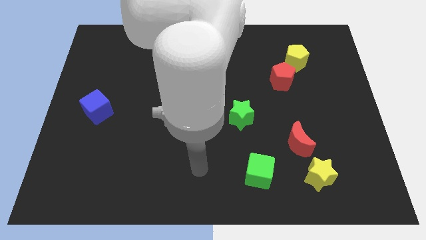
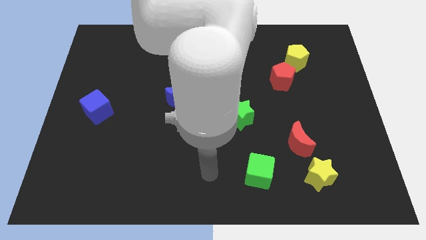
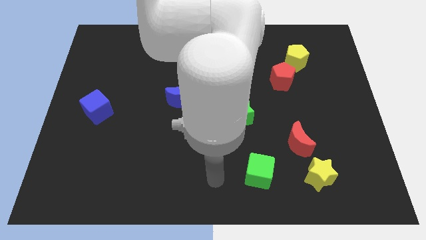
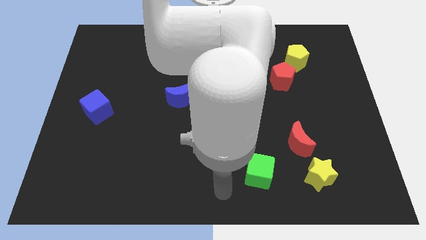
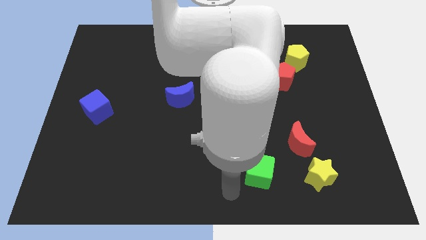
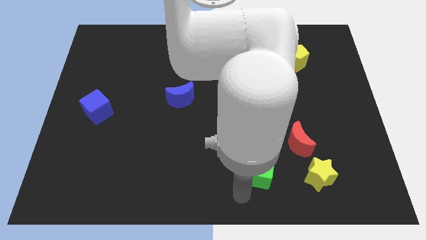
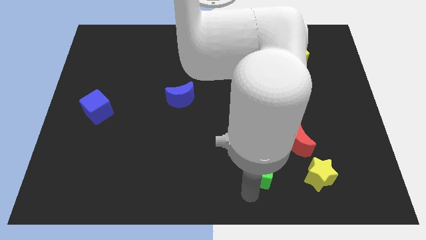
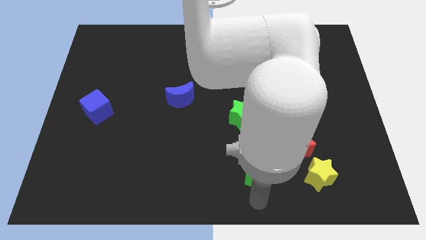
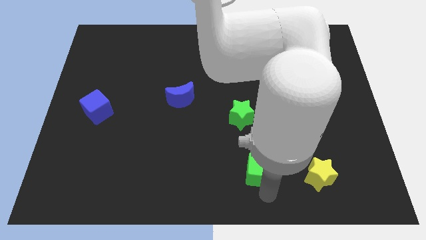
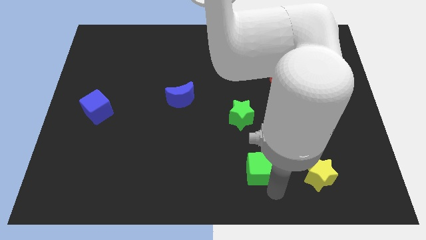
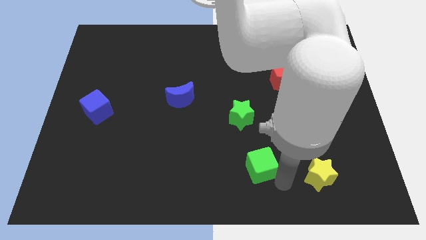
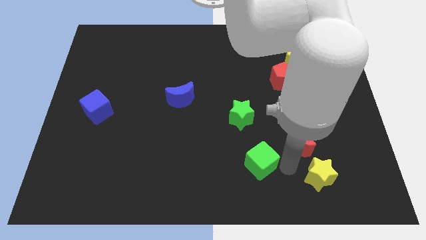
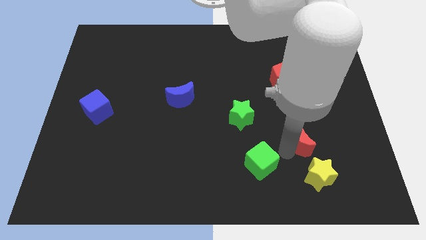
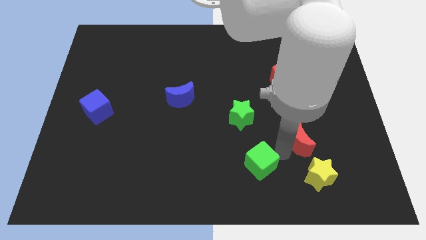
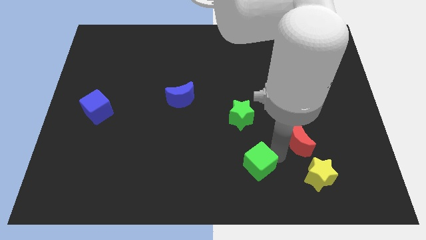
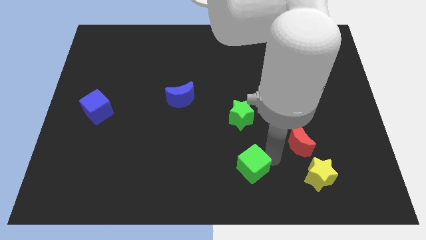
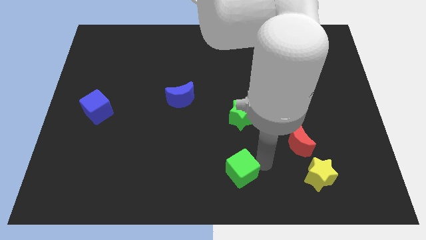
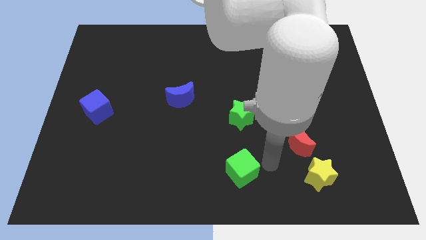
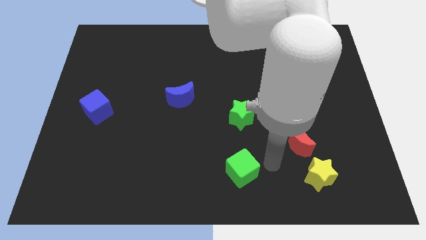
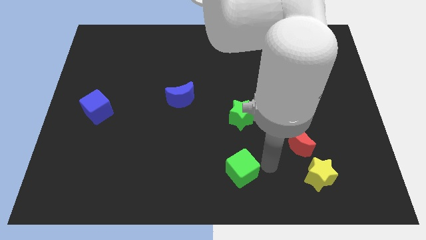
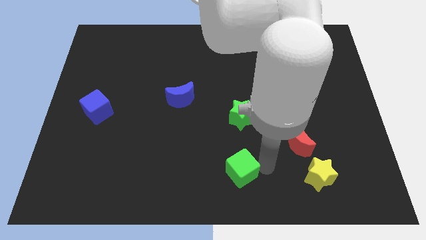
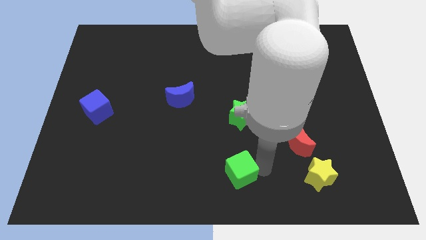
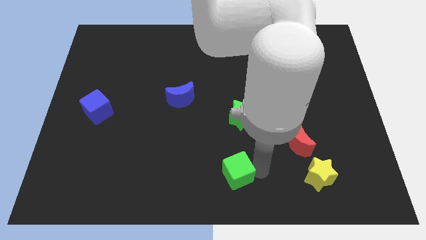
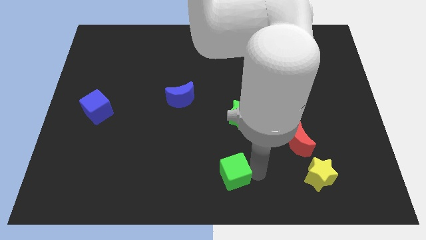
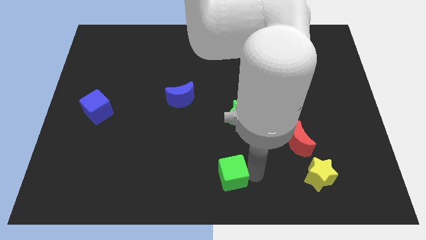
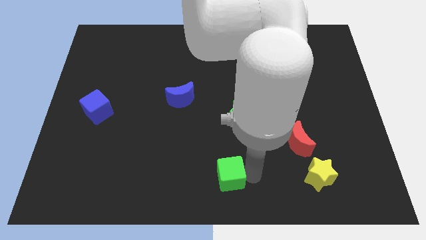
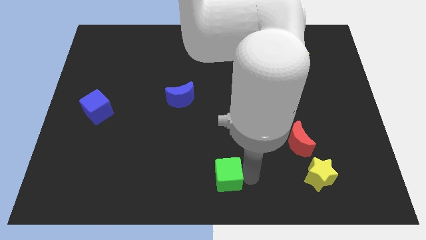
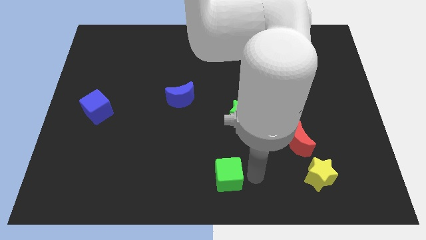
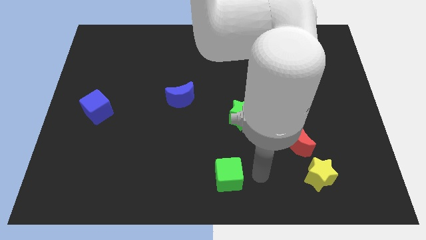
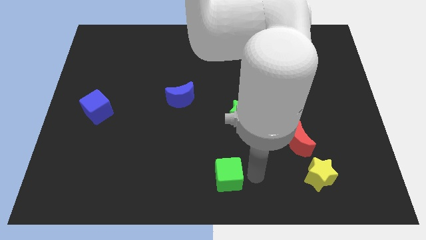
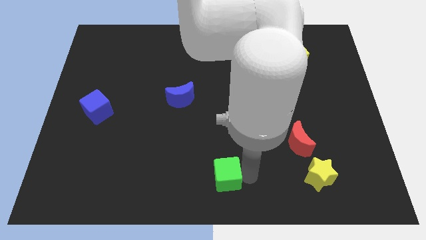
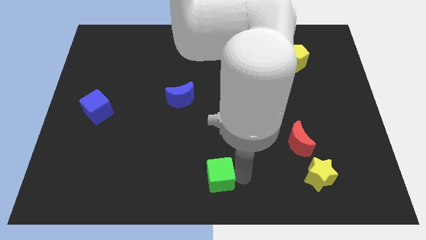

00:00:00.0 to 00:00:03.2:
slide the green cube to the left a little bit

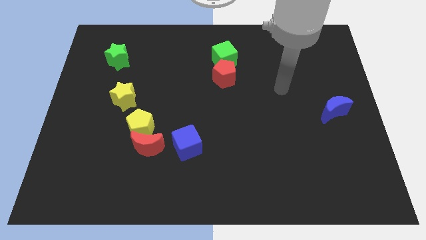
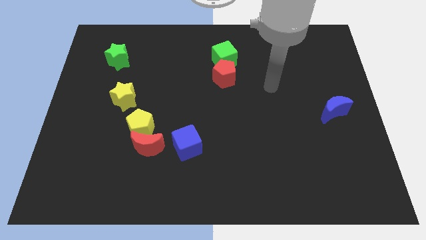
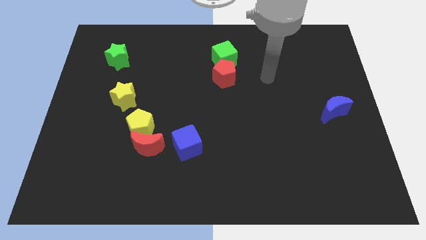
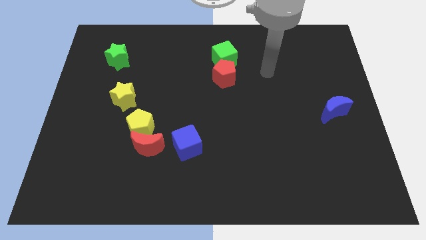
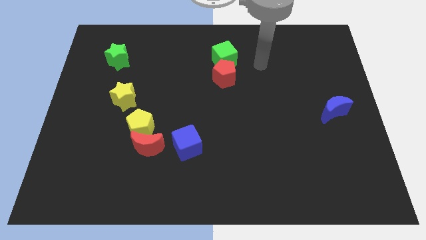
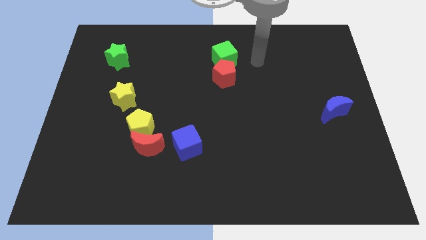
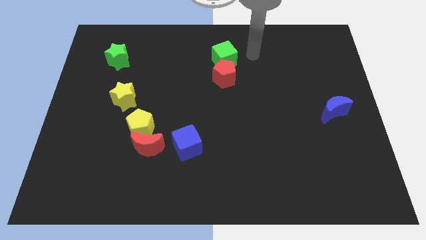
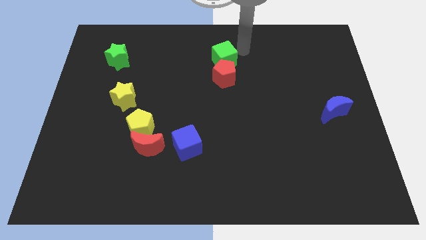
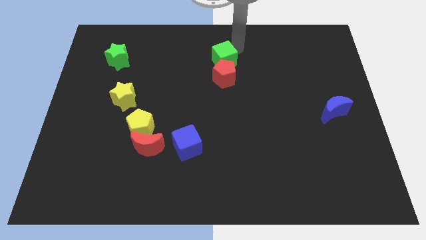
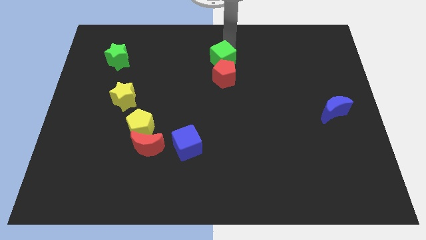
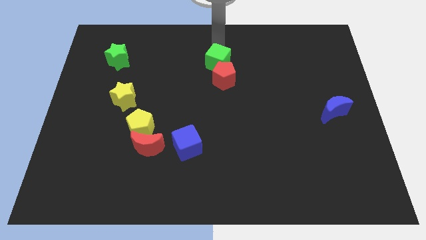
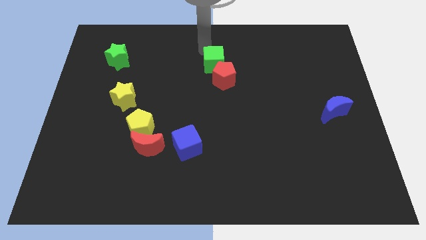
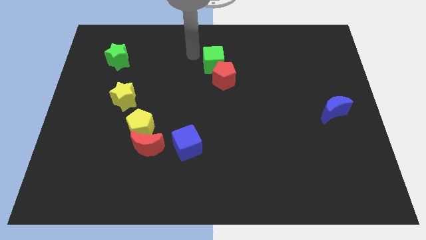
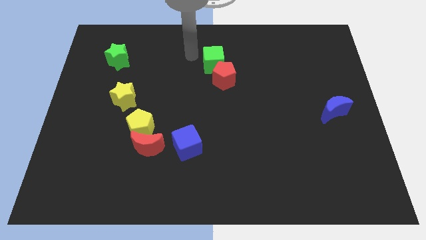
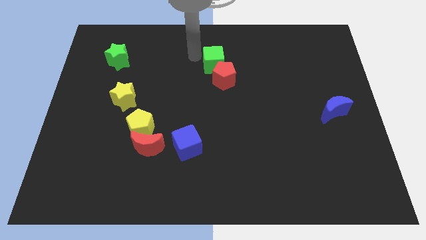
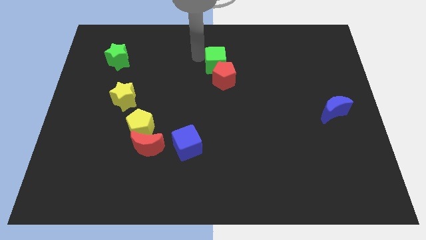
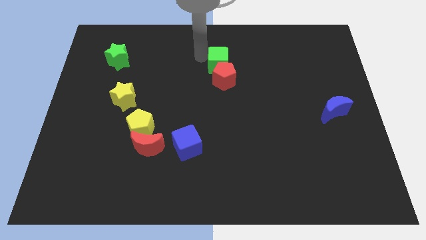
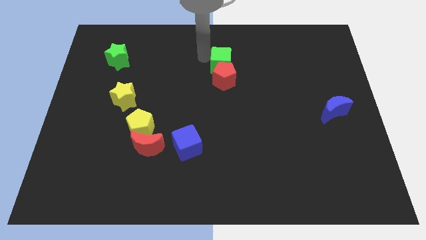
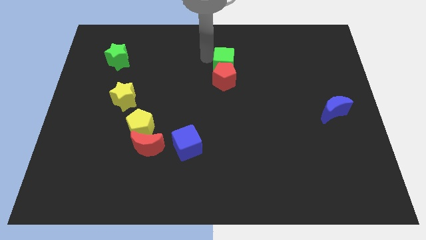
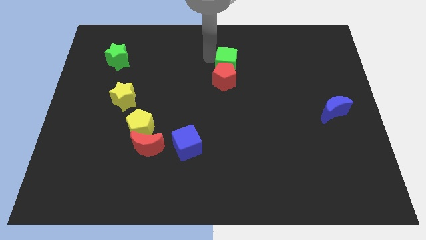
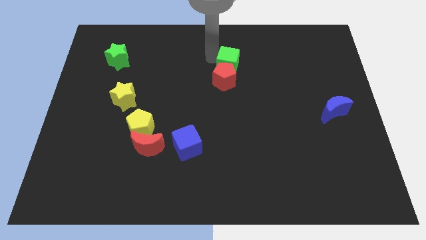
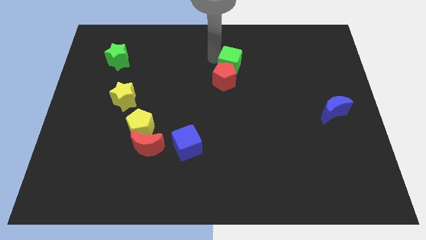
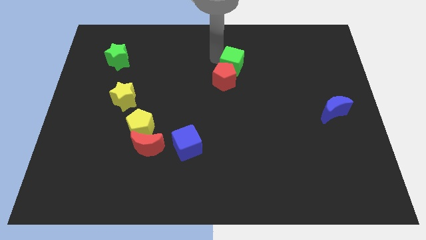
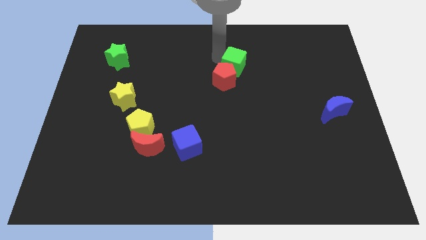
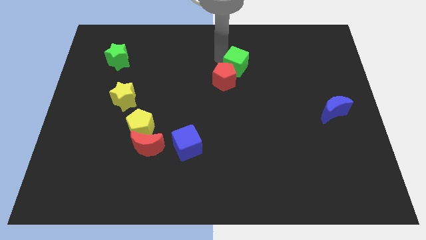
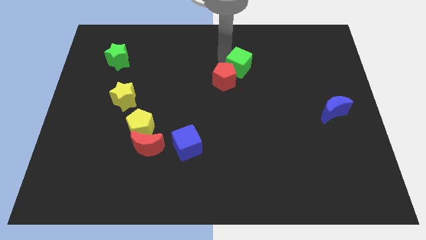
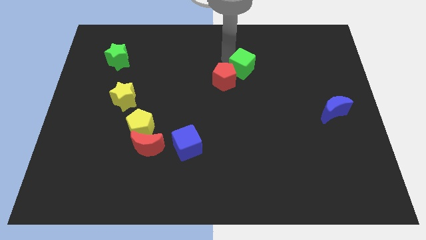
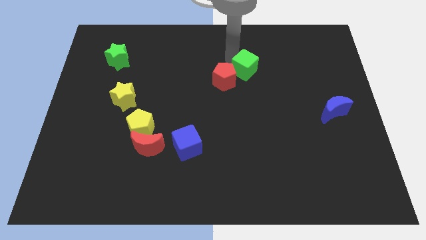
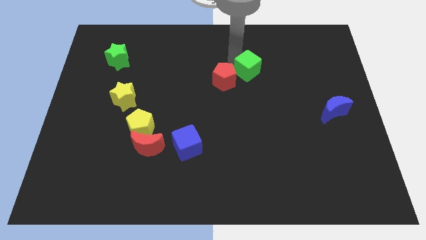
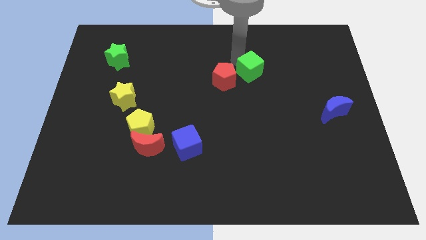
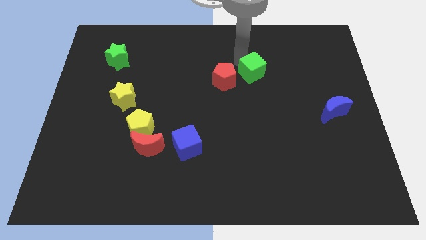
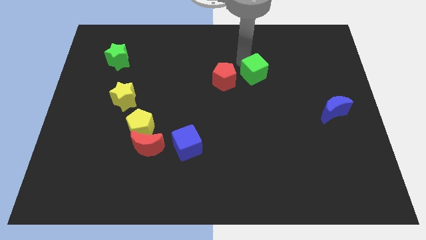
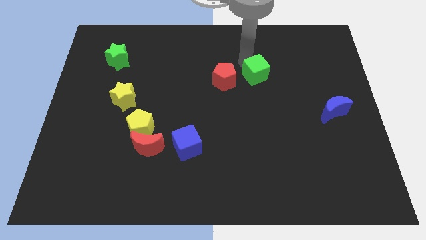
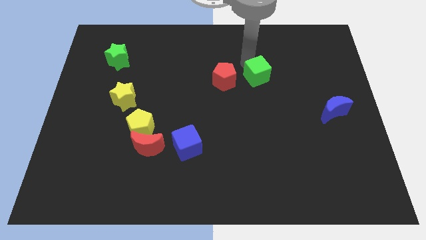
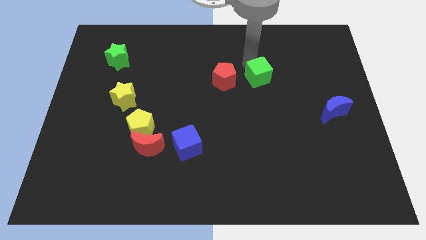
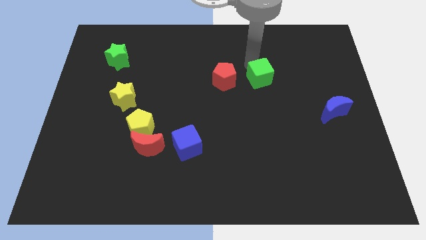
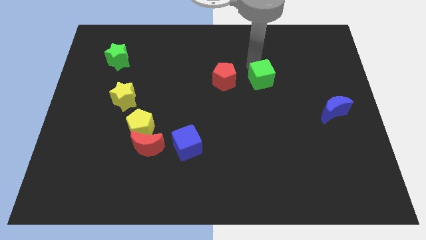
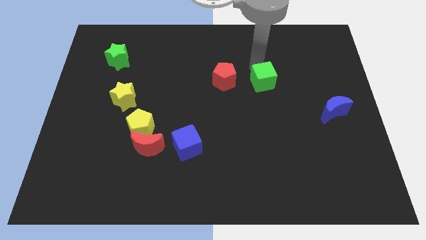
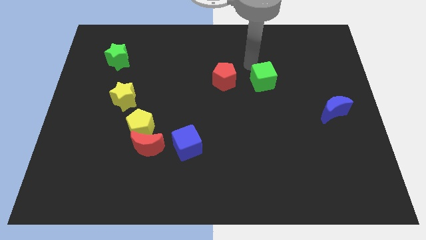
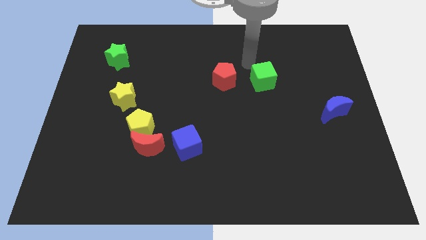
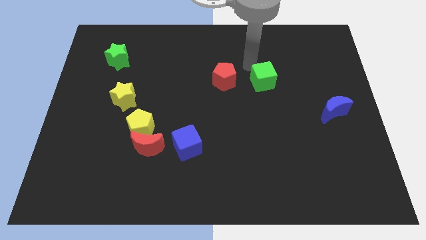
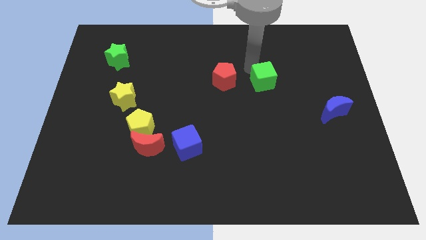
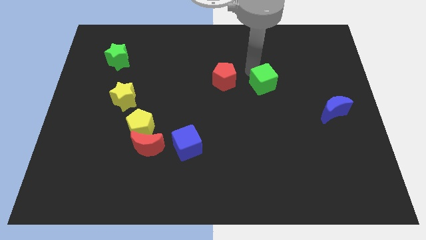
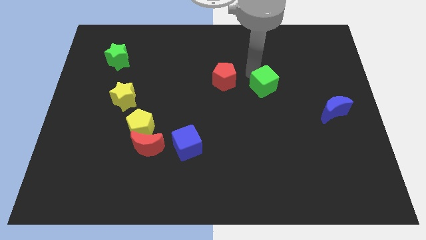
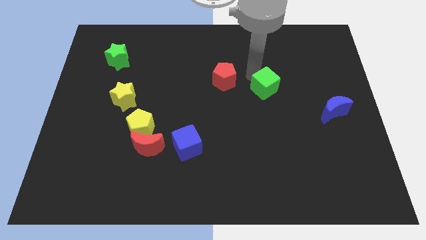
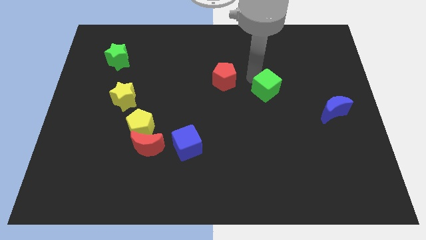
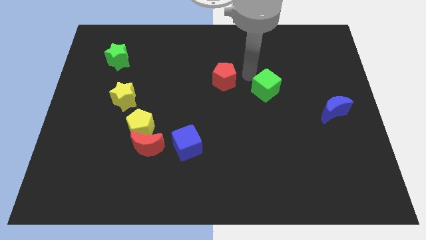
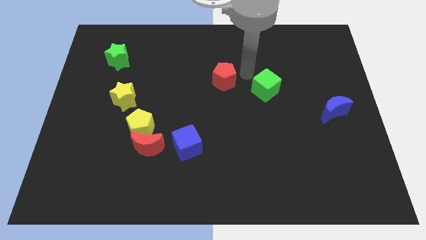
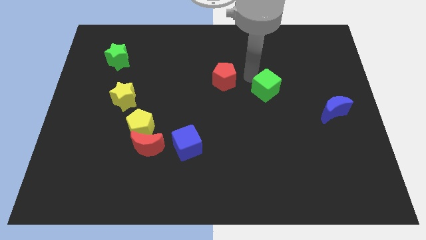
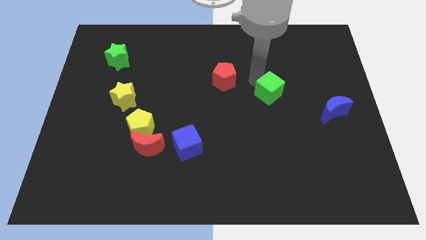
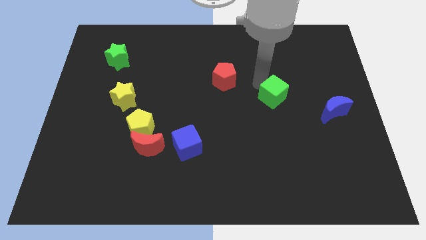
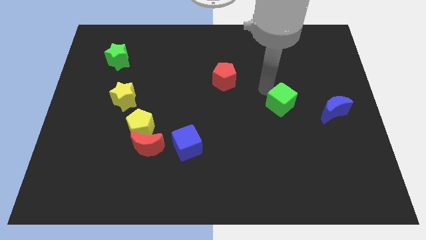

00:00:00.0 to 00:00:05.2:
slide the green cube downwards and right diagonally
